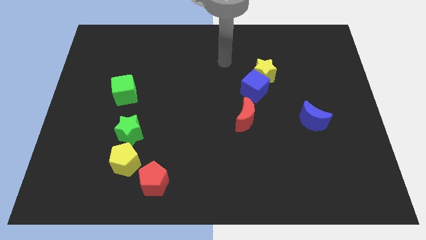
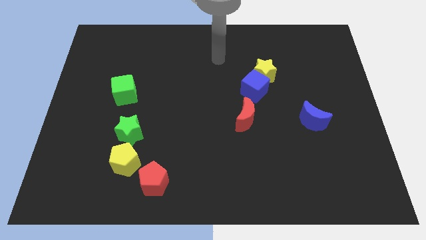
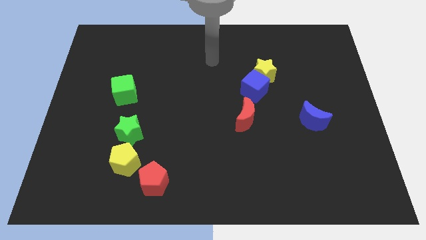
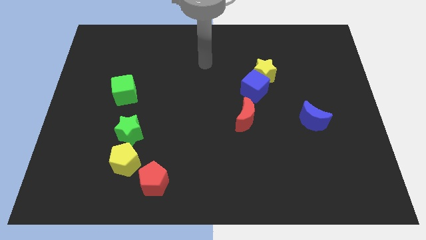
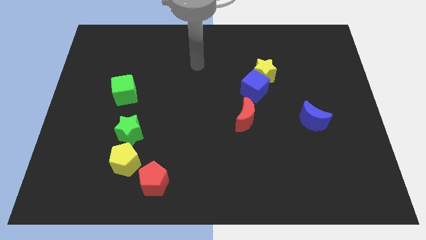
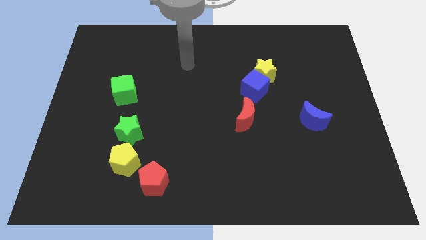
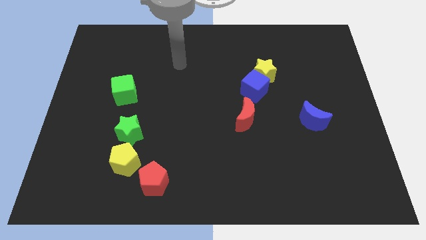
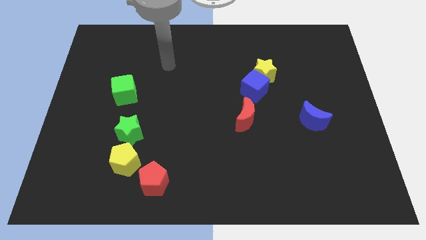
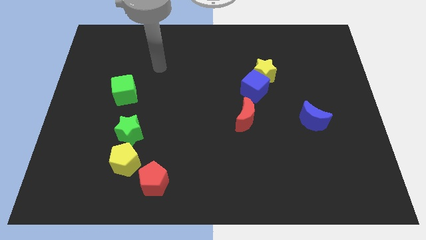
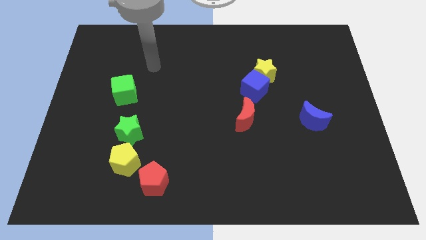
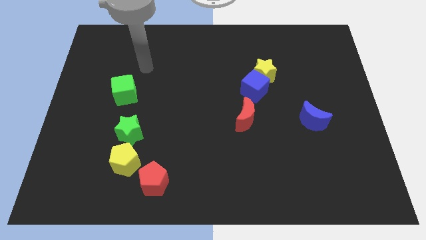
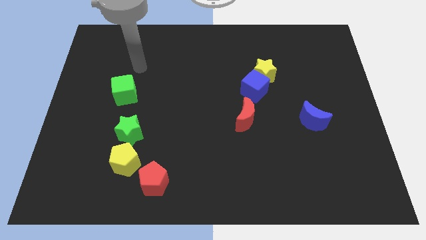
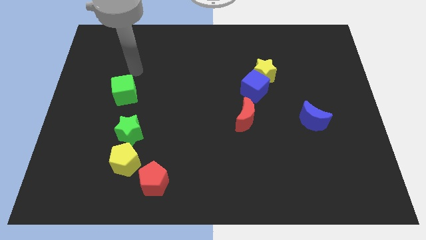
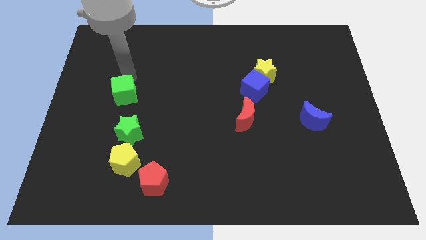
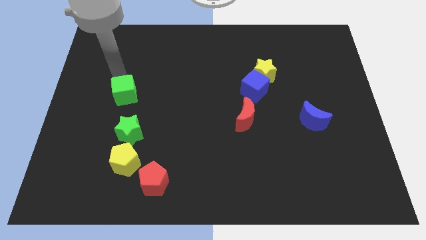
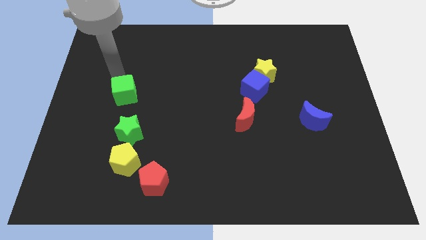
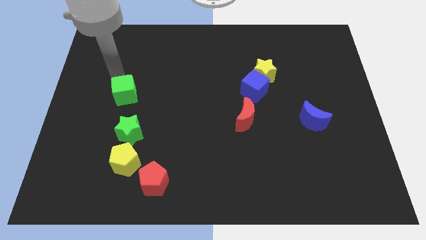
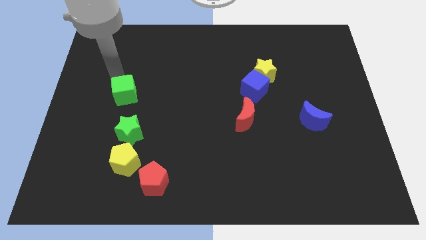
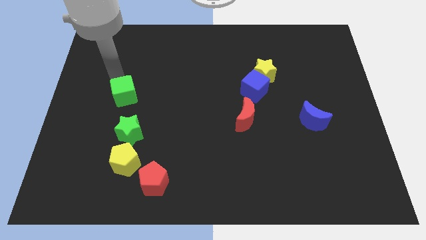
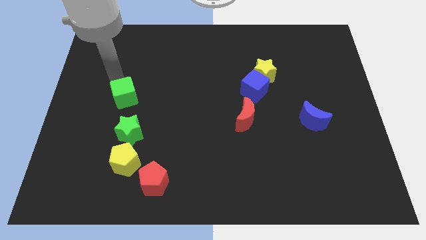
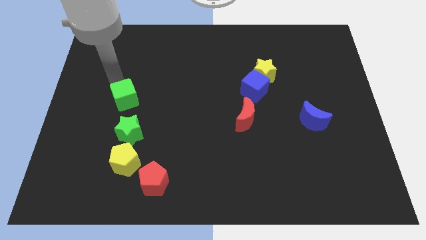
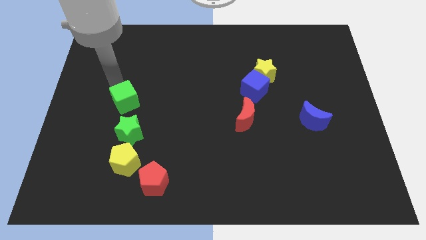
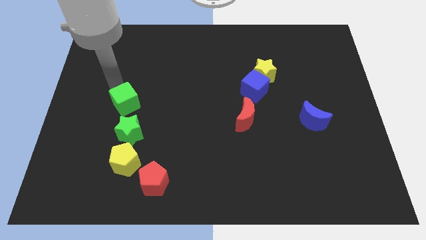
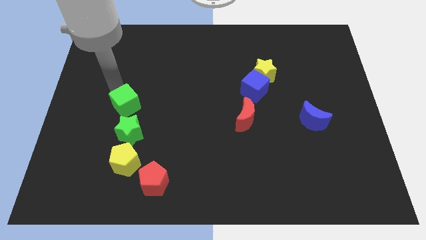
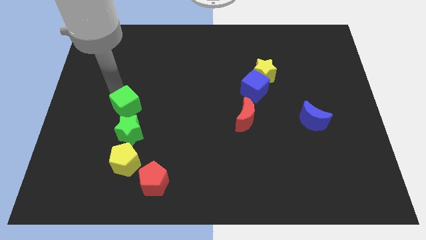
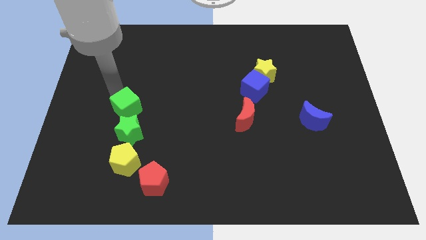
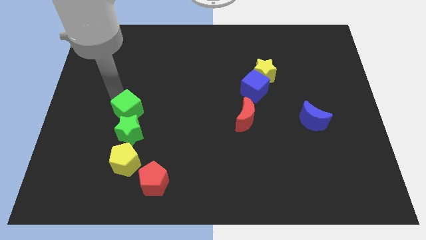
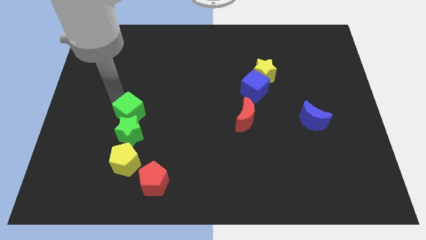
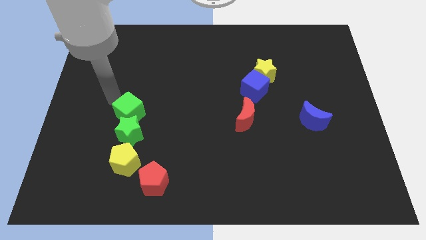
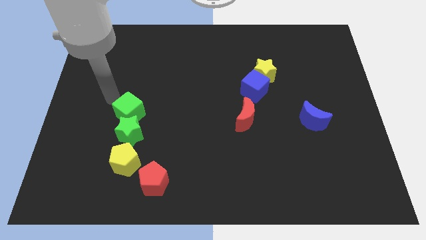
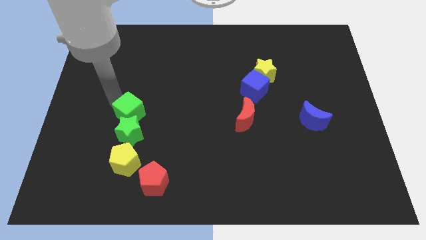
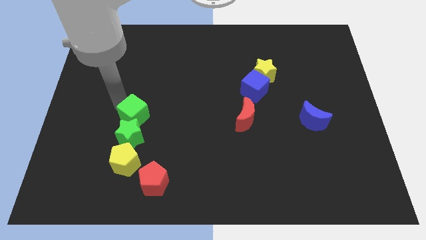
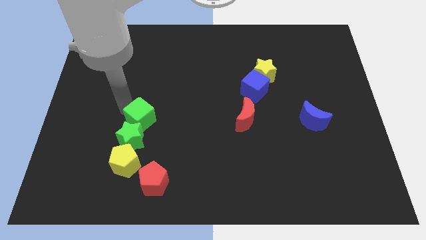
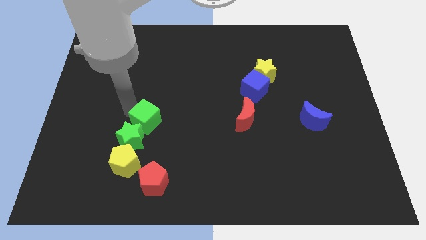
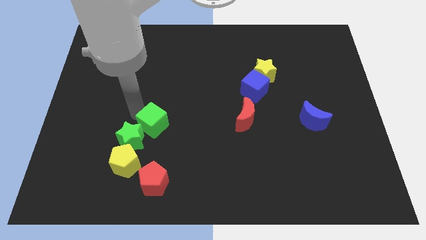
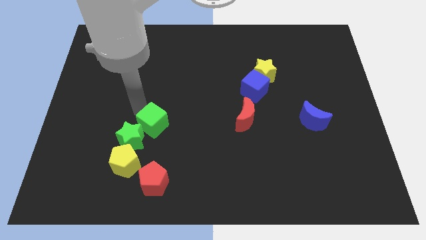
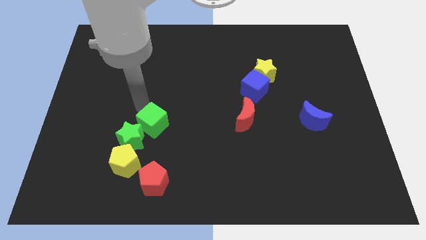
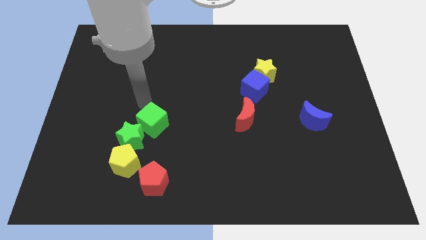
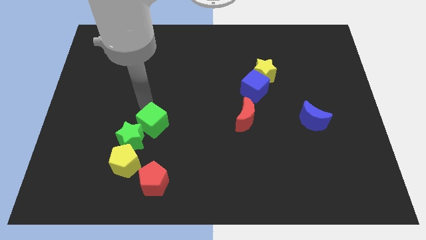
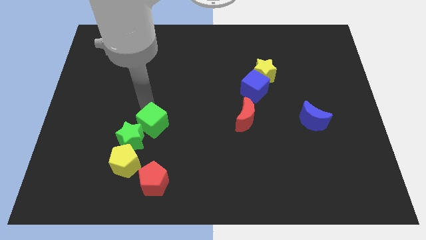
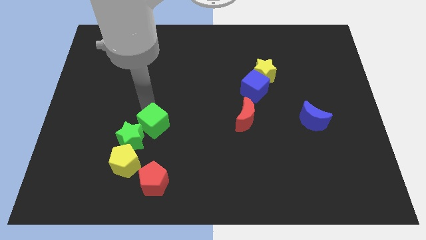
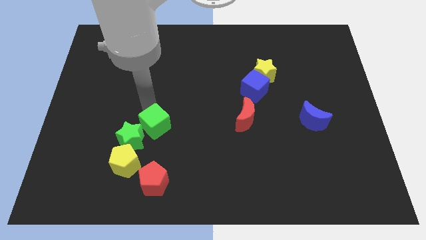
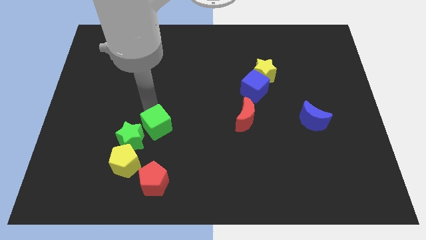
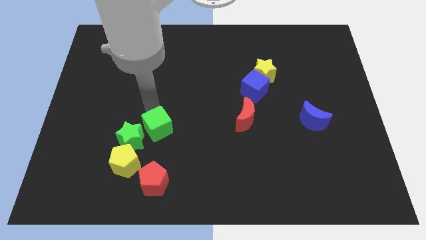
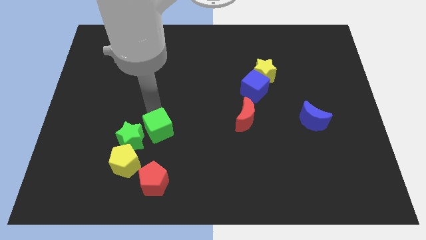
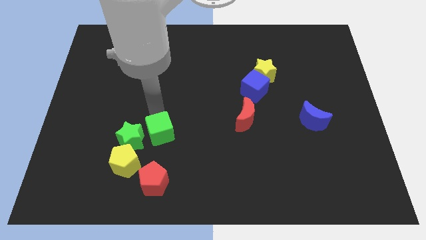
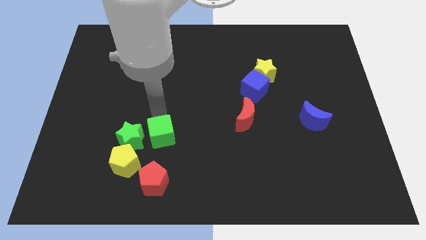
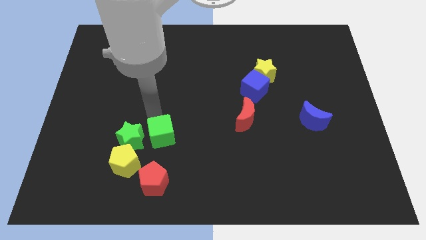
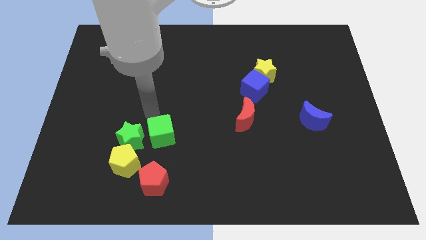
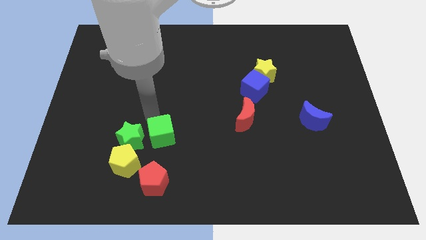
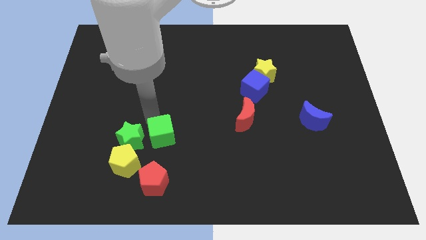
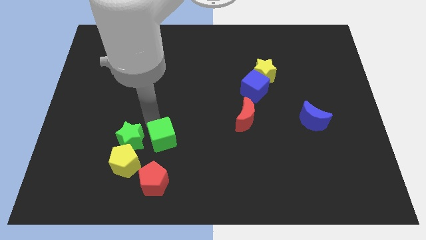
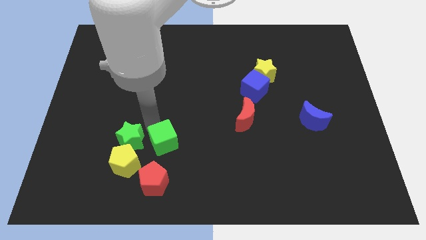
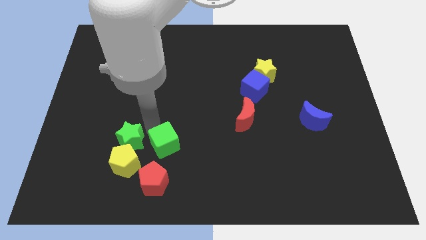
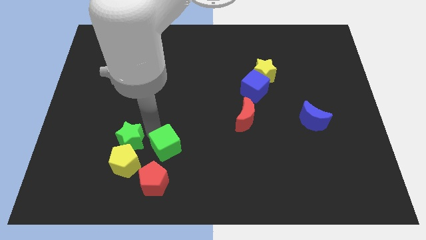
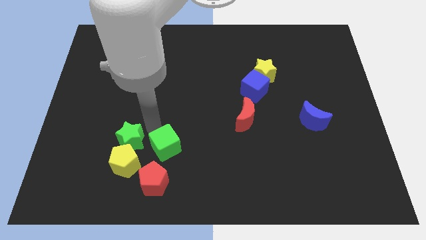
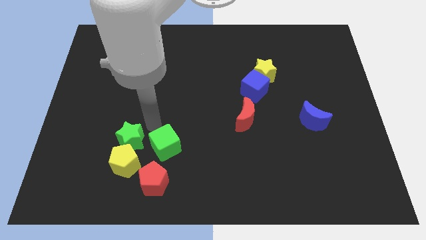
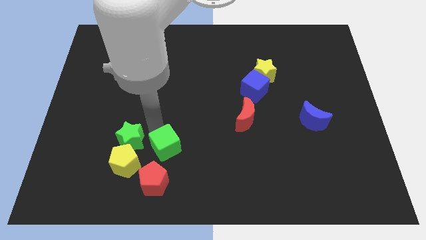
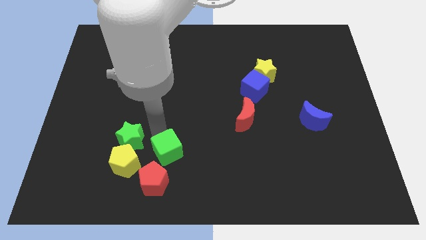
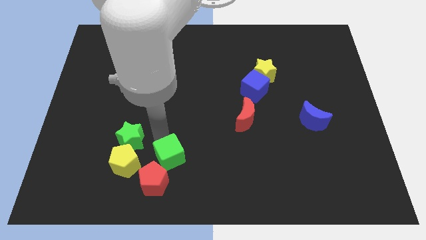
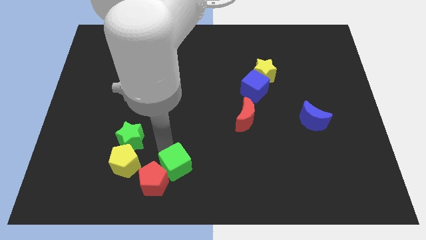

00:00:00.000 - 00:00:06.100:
move the green cube to the bottom
